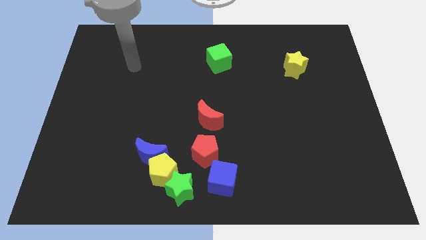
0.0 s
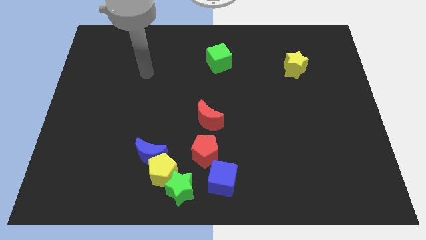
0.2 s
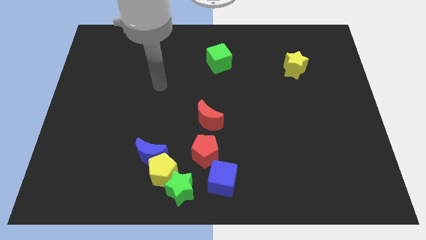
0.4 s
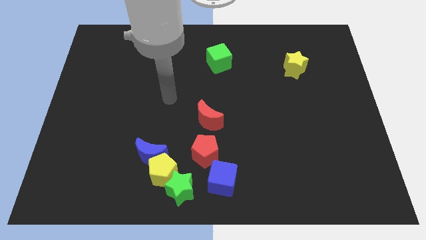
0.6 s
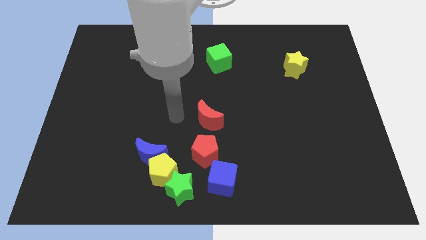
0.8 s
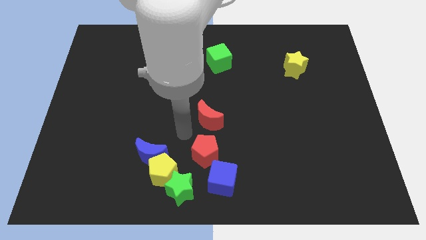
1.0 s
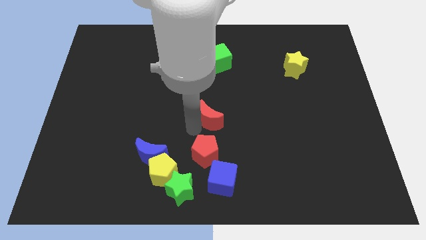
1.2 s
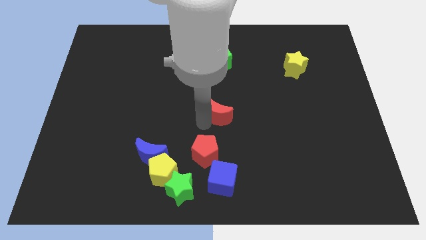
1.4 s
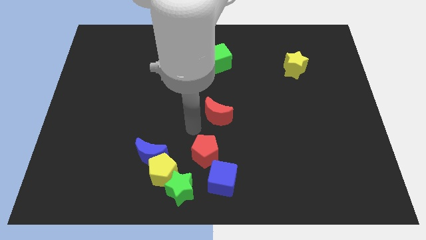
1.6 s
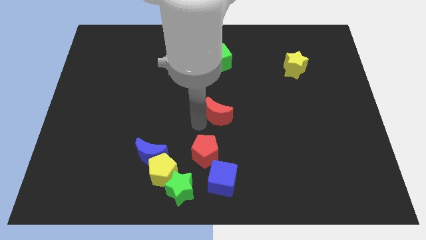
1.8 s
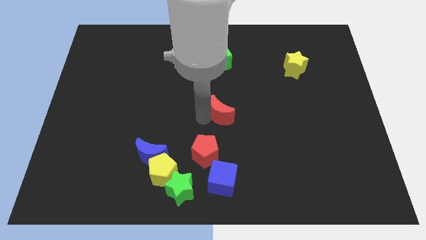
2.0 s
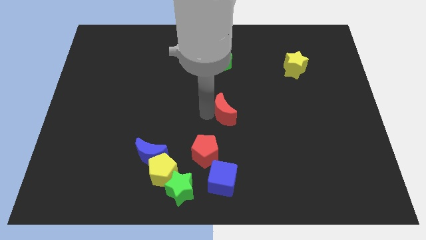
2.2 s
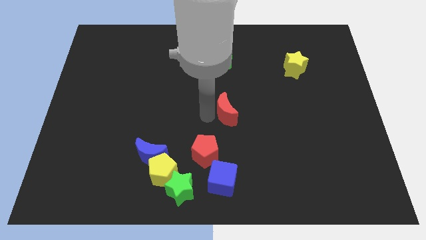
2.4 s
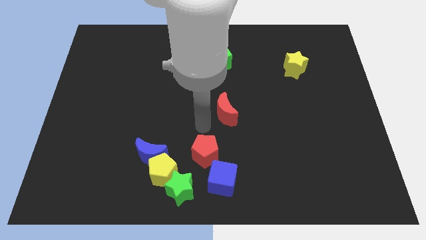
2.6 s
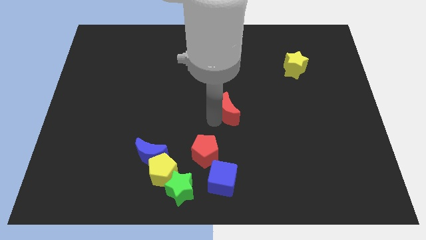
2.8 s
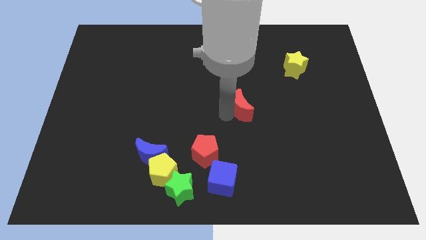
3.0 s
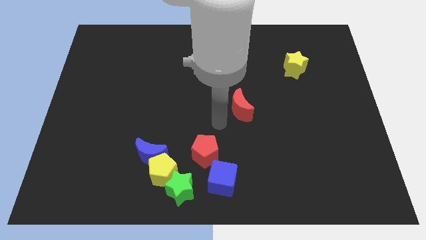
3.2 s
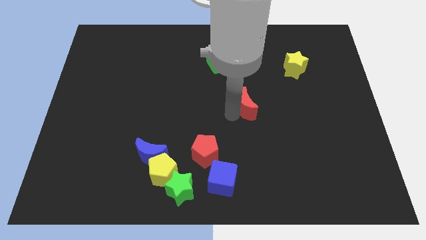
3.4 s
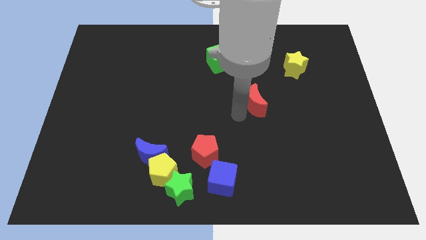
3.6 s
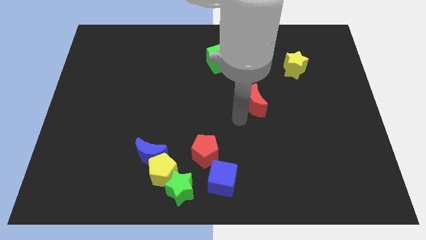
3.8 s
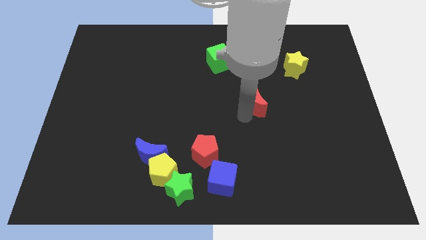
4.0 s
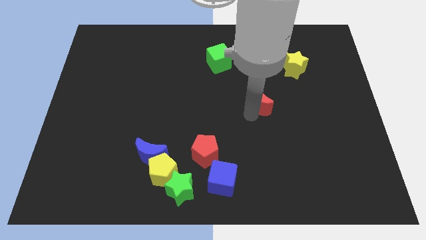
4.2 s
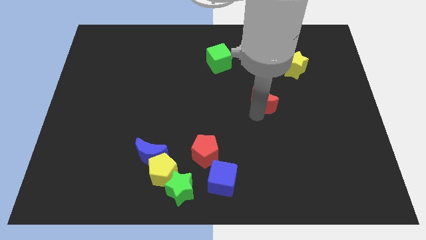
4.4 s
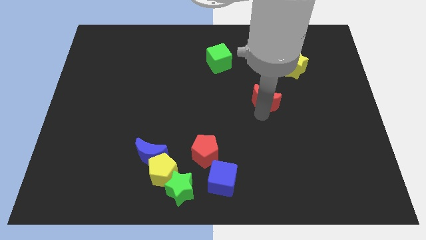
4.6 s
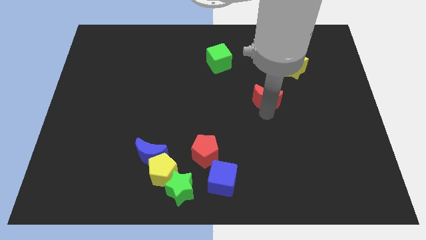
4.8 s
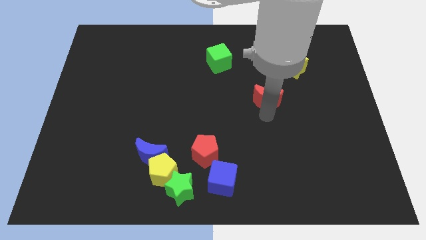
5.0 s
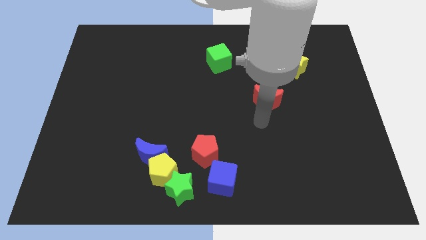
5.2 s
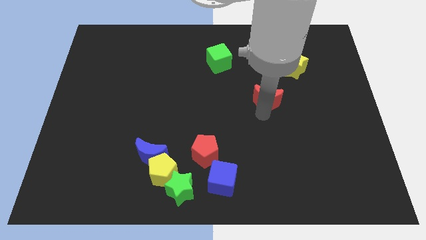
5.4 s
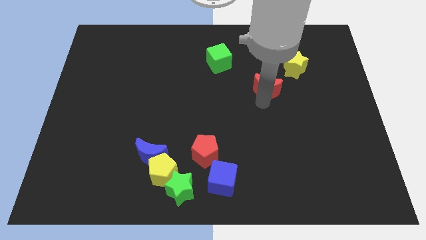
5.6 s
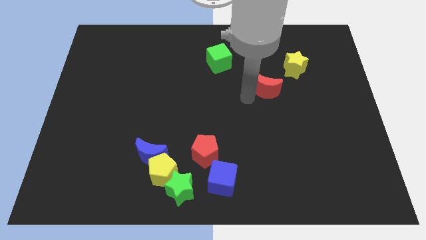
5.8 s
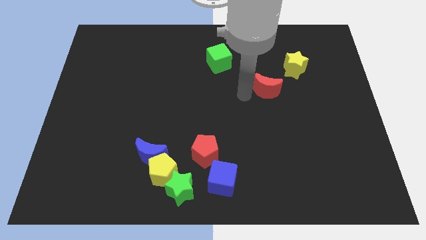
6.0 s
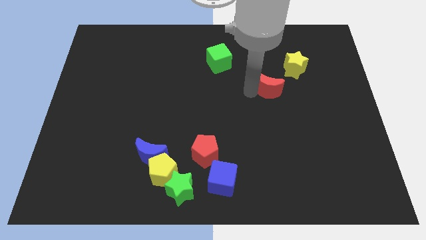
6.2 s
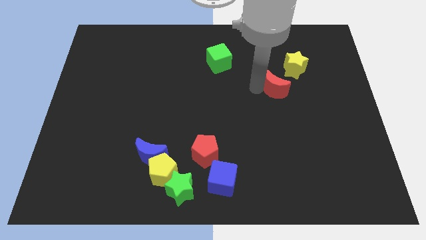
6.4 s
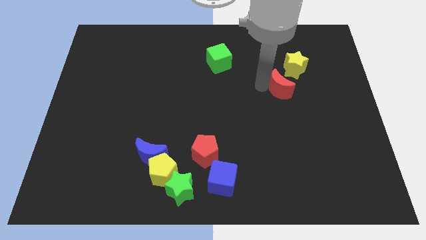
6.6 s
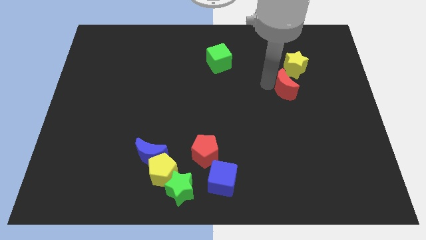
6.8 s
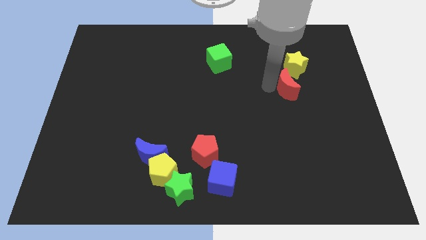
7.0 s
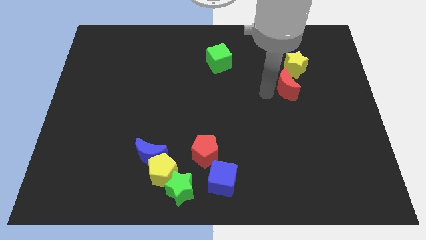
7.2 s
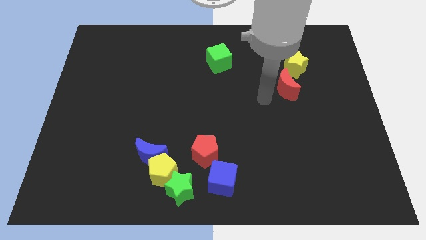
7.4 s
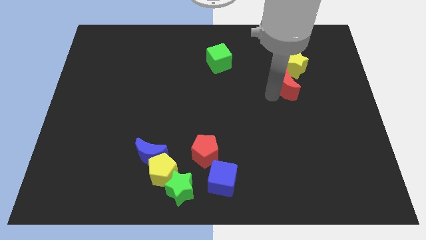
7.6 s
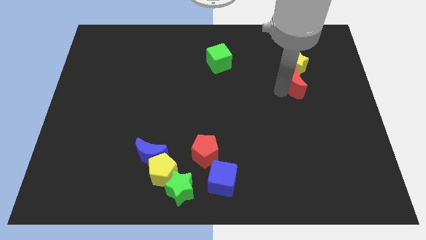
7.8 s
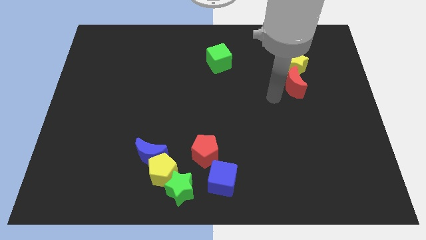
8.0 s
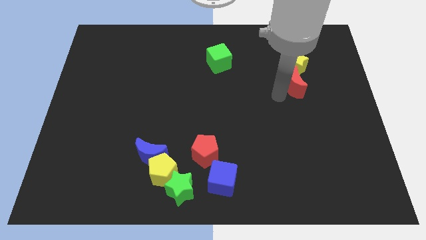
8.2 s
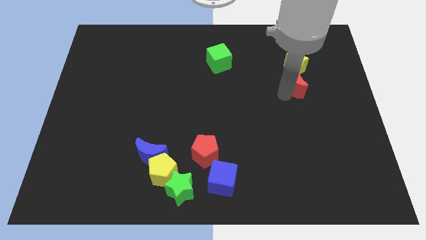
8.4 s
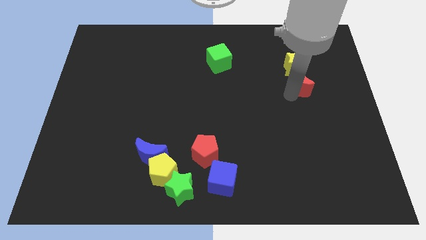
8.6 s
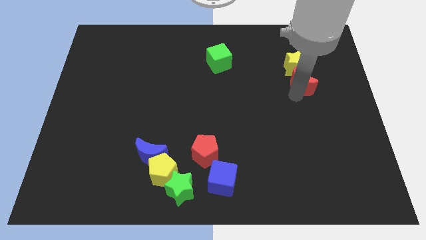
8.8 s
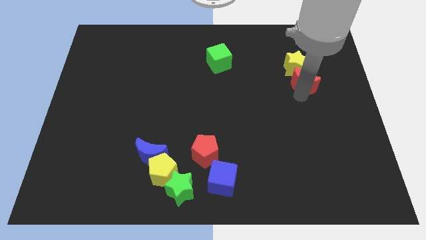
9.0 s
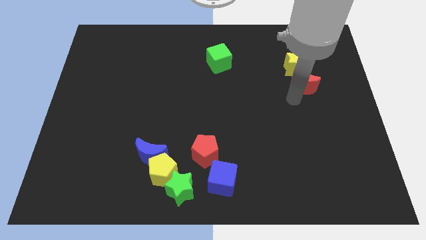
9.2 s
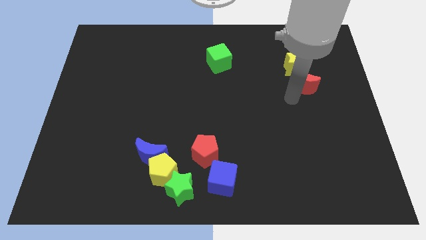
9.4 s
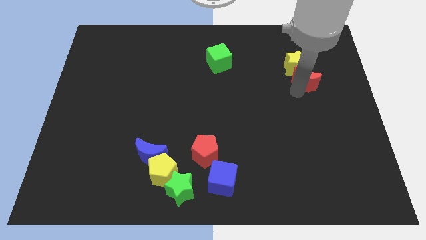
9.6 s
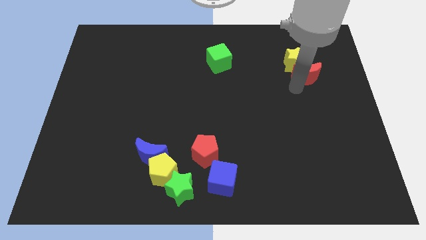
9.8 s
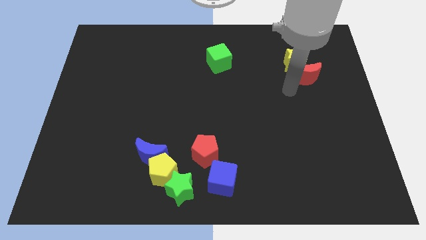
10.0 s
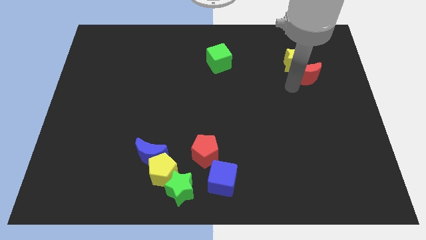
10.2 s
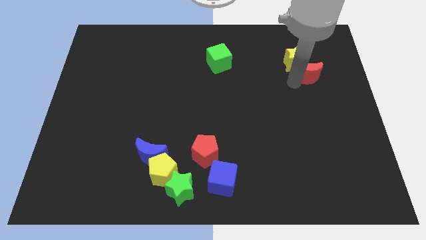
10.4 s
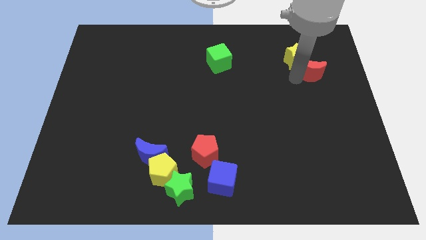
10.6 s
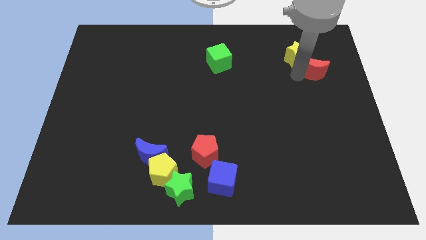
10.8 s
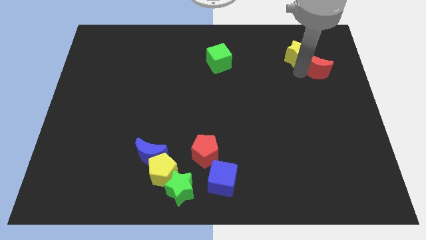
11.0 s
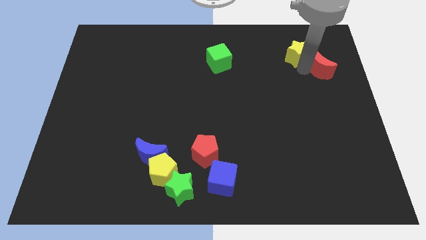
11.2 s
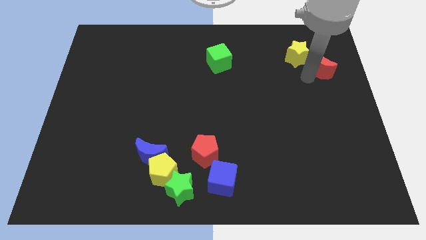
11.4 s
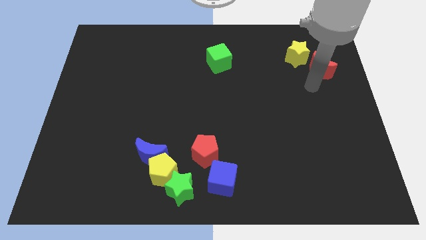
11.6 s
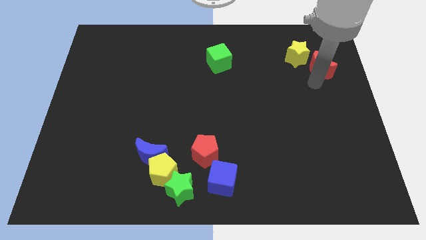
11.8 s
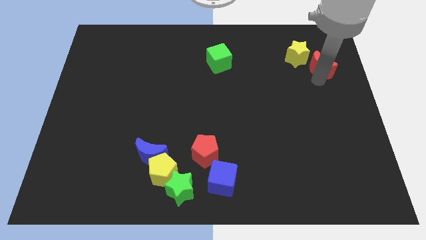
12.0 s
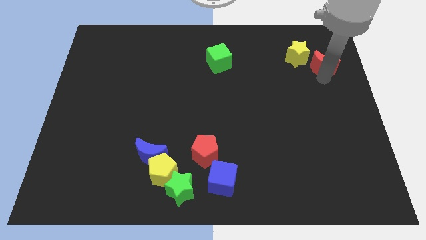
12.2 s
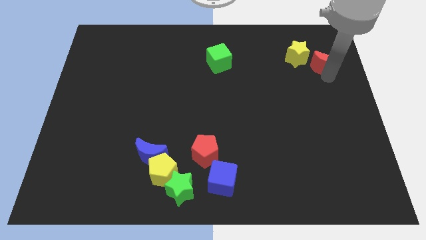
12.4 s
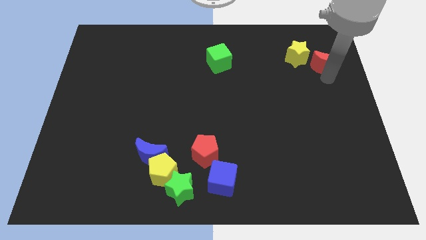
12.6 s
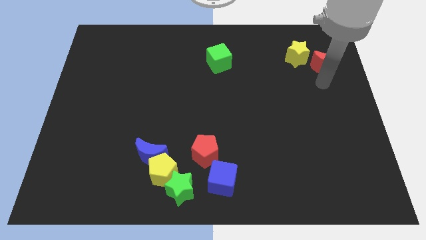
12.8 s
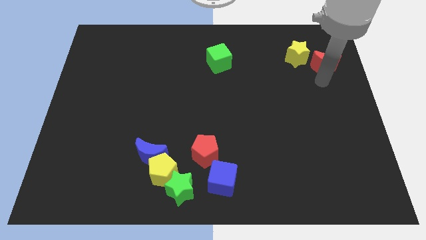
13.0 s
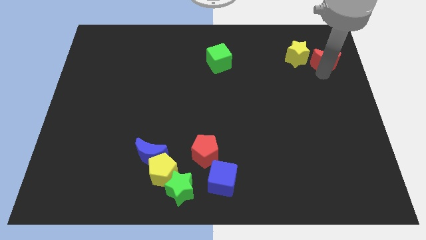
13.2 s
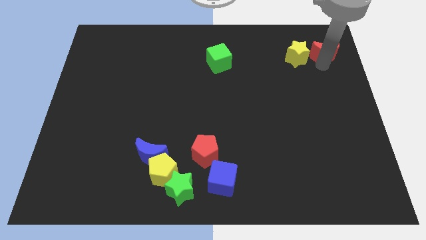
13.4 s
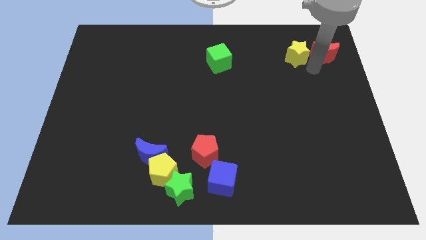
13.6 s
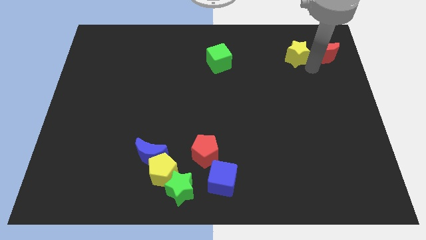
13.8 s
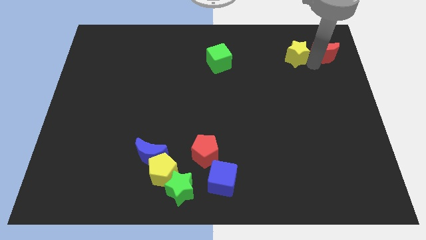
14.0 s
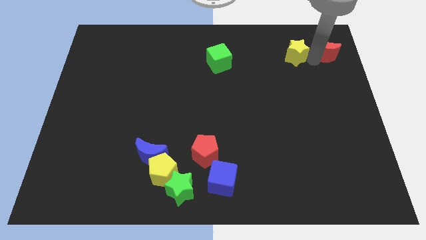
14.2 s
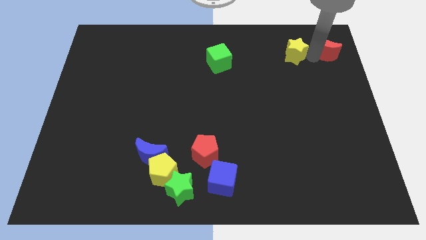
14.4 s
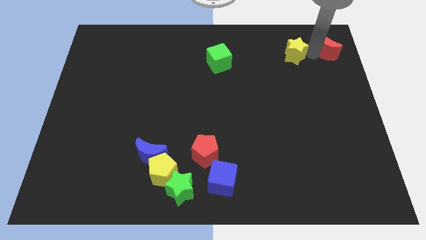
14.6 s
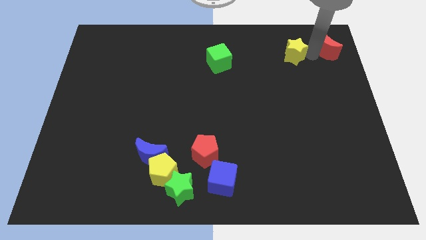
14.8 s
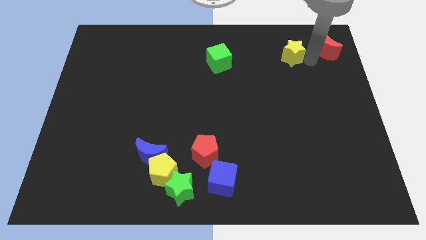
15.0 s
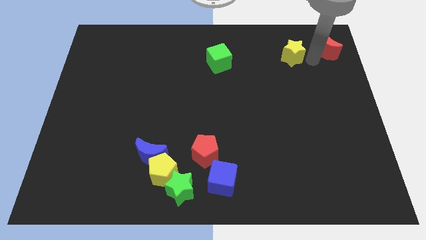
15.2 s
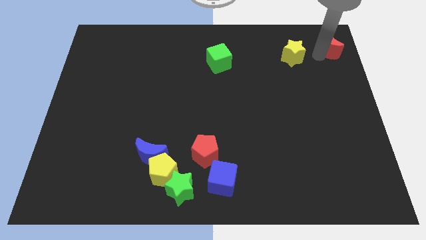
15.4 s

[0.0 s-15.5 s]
push the red moon to the upper right corner
